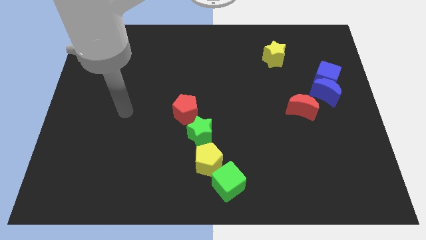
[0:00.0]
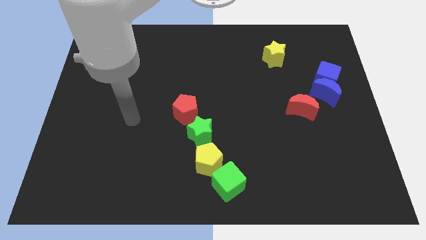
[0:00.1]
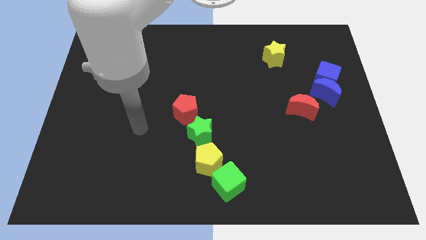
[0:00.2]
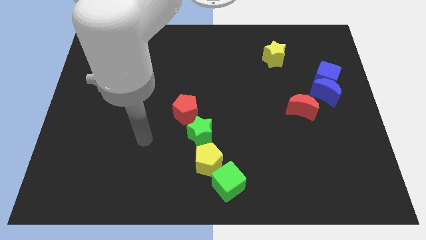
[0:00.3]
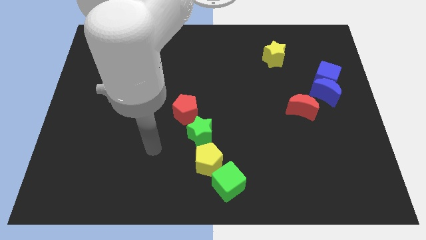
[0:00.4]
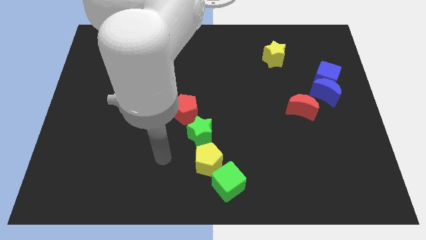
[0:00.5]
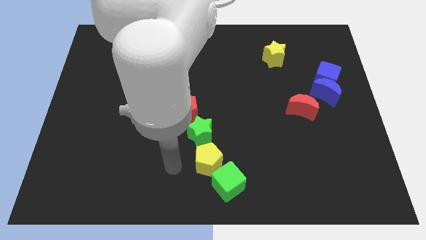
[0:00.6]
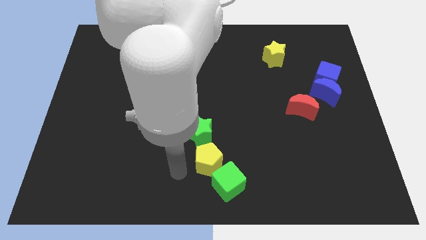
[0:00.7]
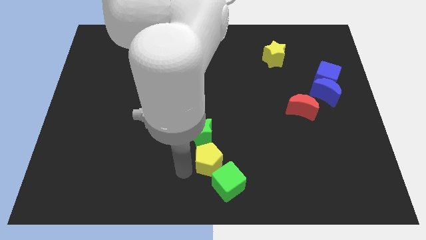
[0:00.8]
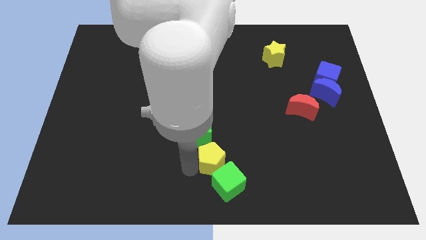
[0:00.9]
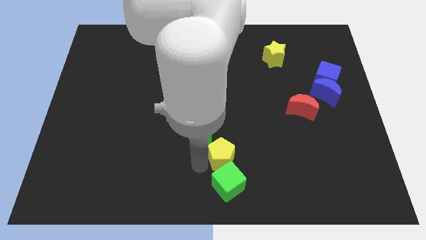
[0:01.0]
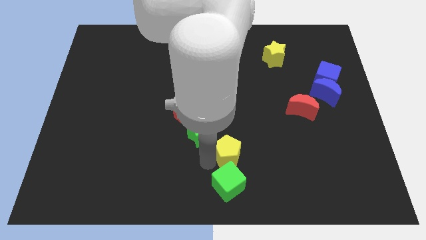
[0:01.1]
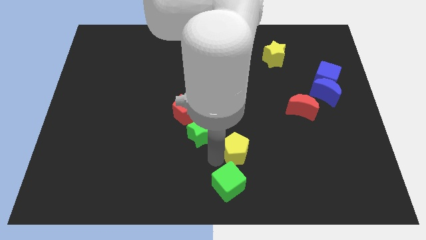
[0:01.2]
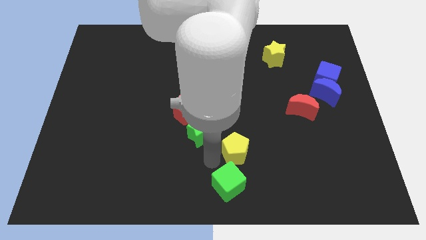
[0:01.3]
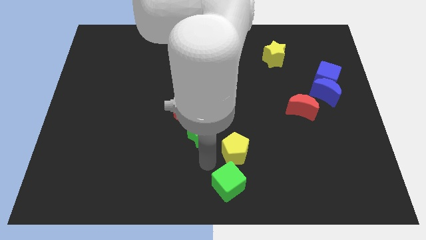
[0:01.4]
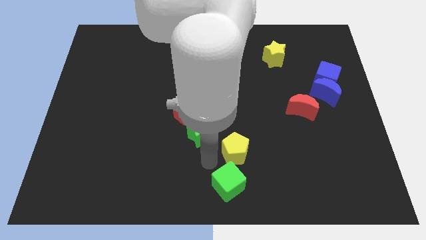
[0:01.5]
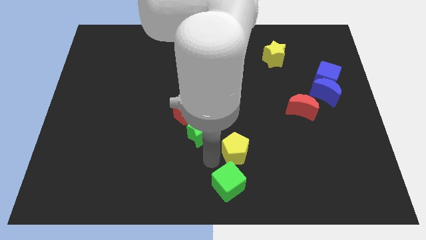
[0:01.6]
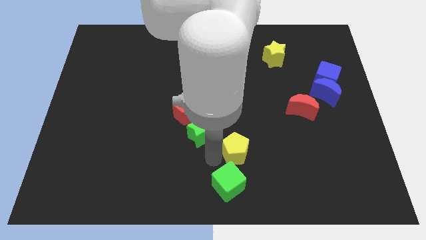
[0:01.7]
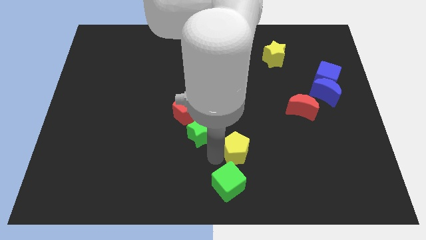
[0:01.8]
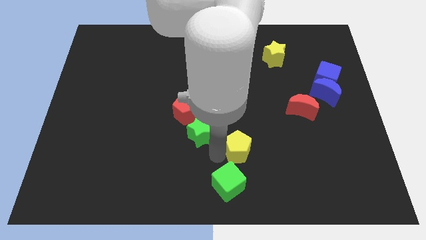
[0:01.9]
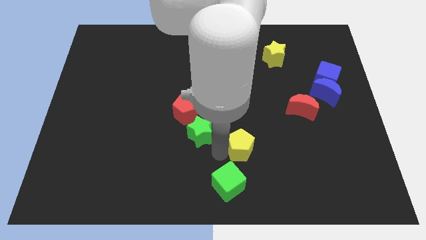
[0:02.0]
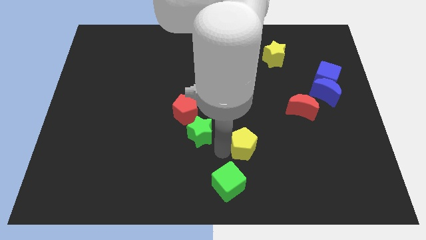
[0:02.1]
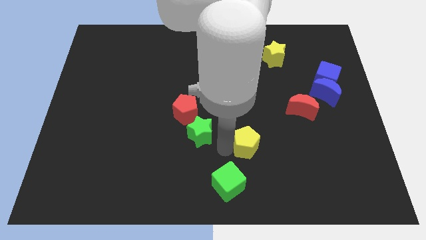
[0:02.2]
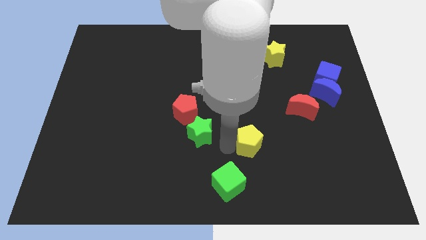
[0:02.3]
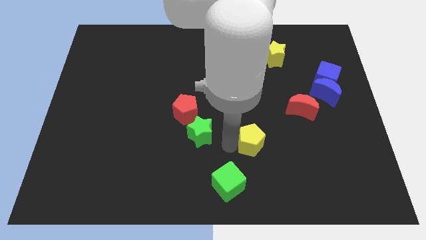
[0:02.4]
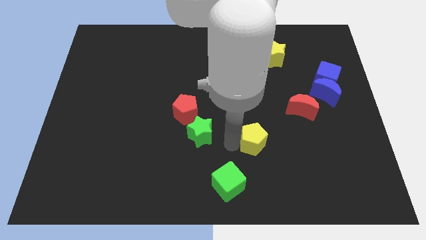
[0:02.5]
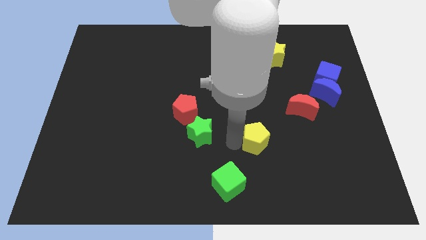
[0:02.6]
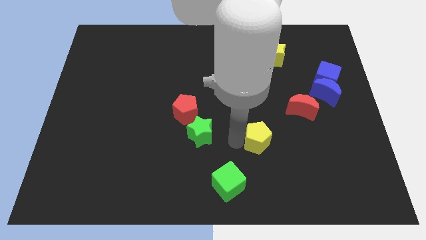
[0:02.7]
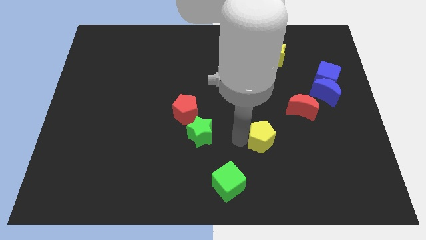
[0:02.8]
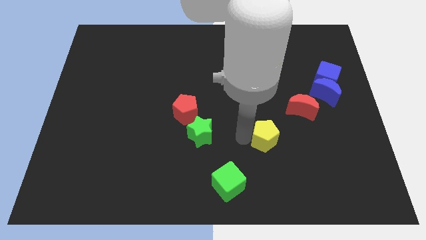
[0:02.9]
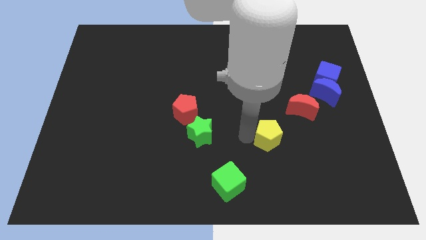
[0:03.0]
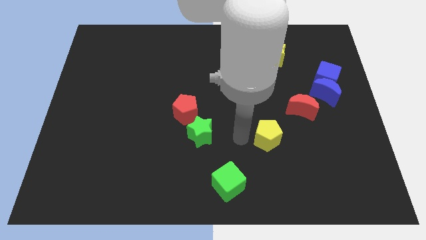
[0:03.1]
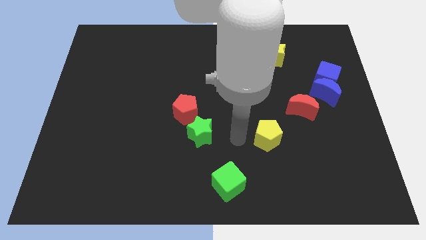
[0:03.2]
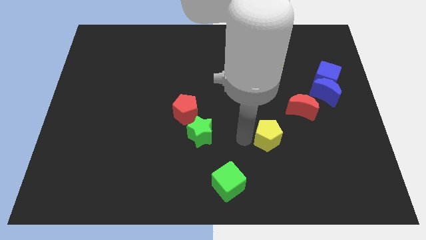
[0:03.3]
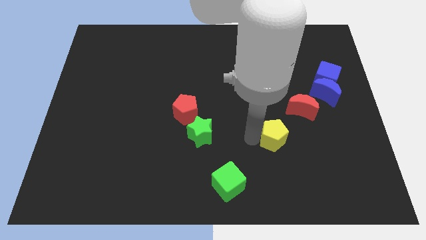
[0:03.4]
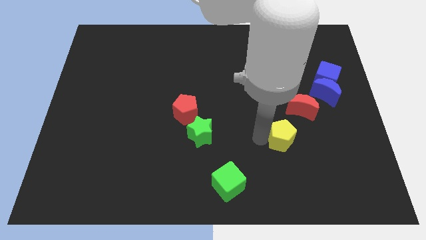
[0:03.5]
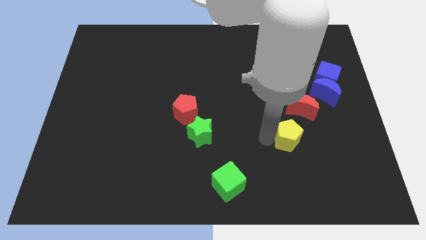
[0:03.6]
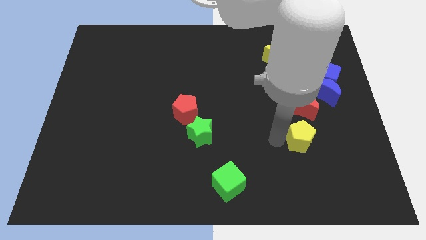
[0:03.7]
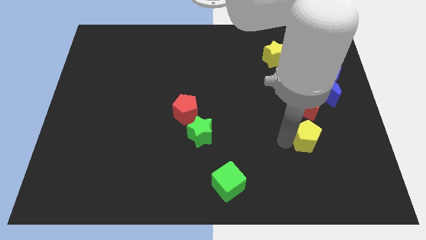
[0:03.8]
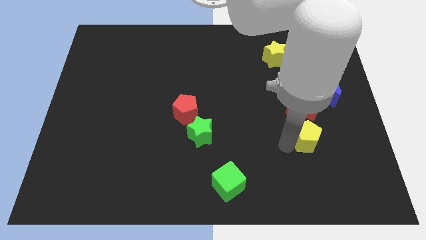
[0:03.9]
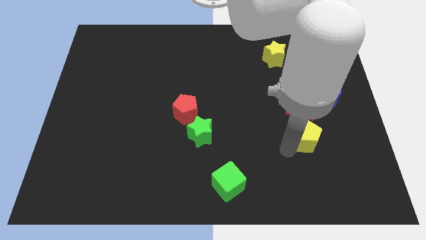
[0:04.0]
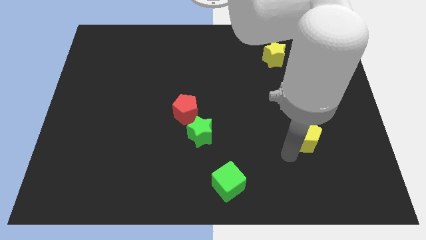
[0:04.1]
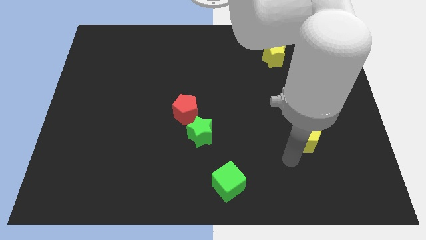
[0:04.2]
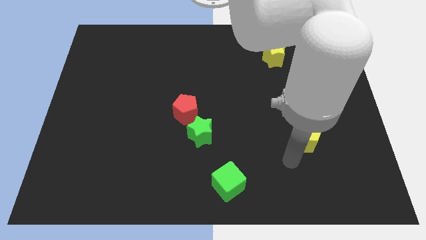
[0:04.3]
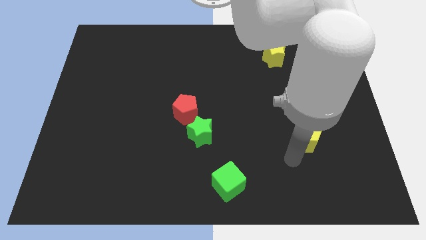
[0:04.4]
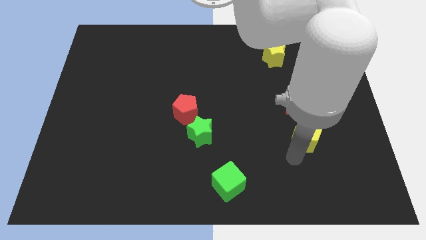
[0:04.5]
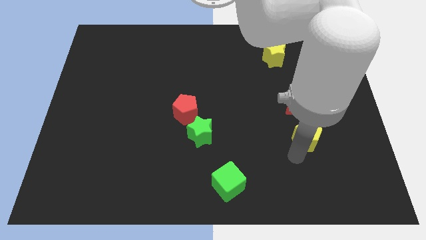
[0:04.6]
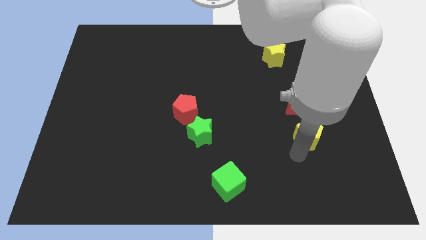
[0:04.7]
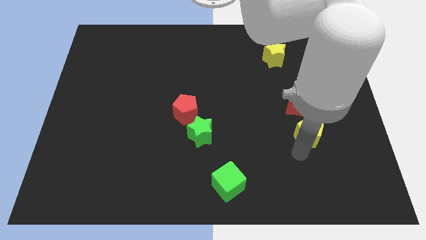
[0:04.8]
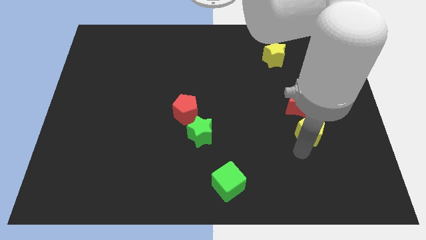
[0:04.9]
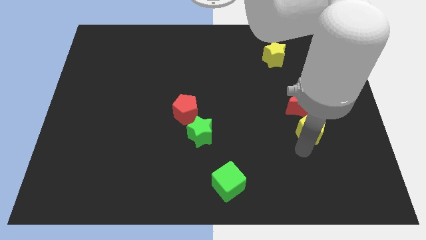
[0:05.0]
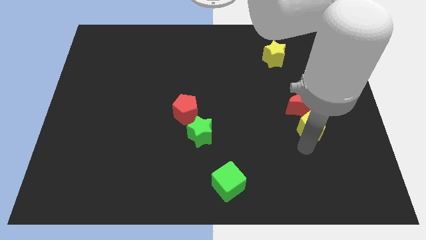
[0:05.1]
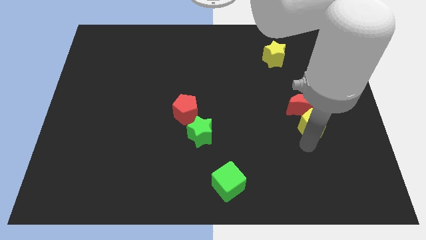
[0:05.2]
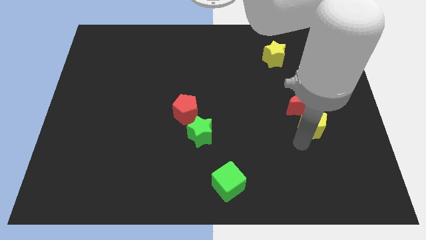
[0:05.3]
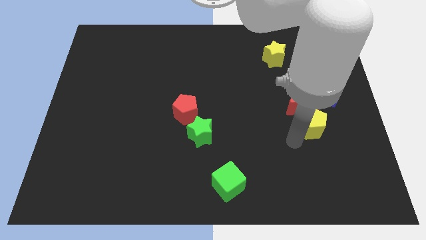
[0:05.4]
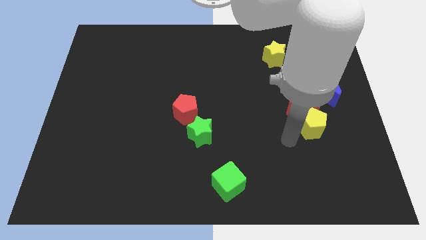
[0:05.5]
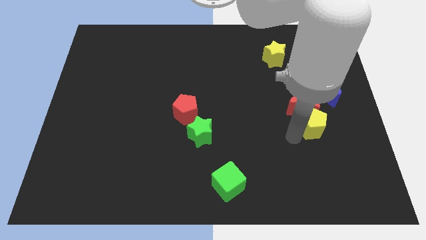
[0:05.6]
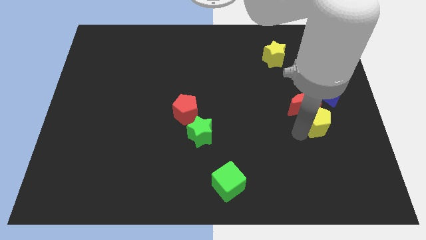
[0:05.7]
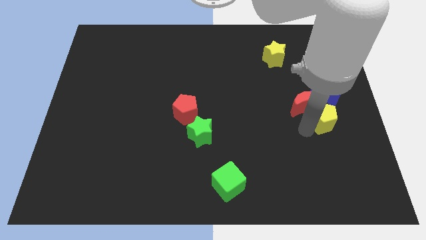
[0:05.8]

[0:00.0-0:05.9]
push the yellow pentagon to the bottom side of the blue cube

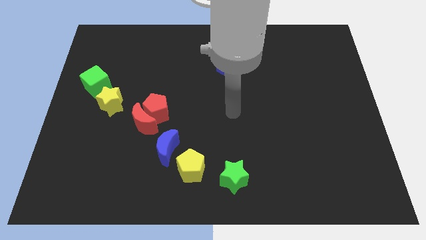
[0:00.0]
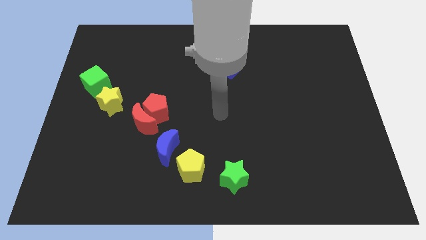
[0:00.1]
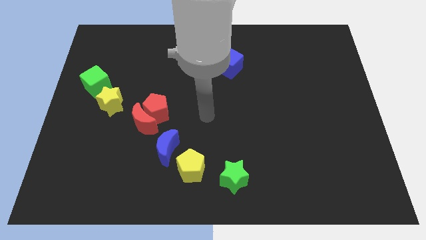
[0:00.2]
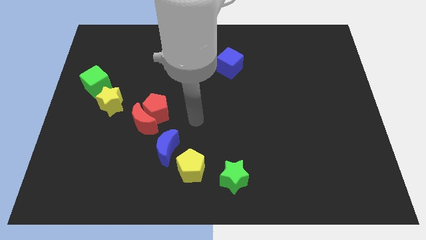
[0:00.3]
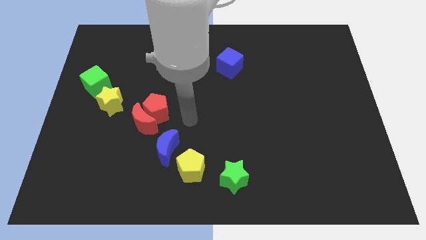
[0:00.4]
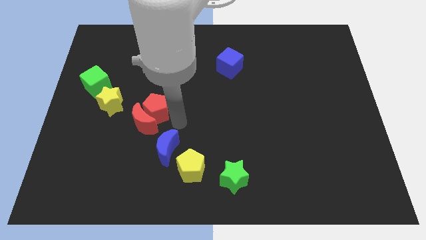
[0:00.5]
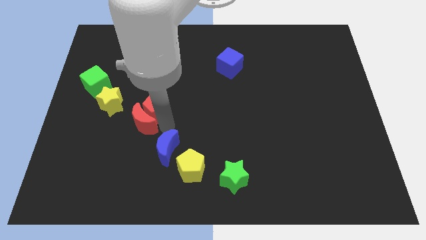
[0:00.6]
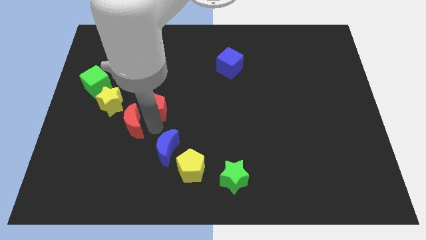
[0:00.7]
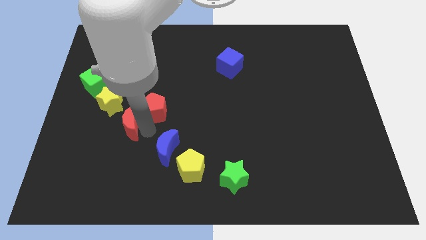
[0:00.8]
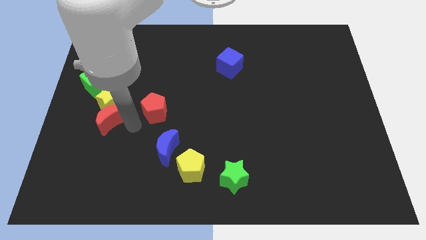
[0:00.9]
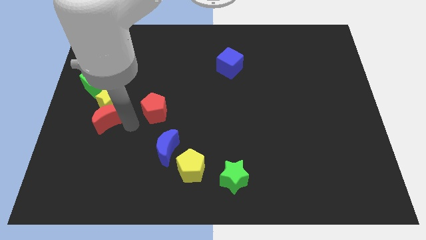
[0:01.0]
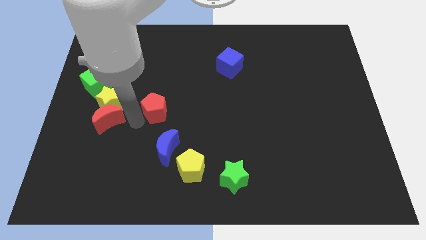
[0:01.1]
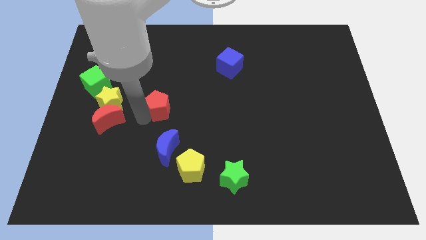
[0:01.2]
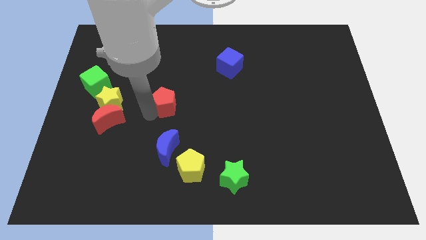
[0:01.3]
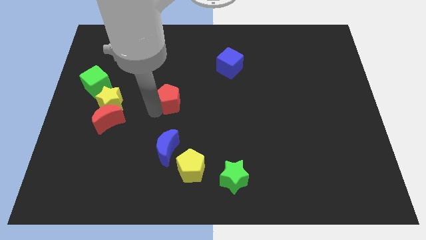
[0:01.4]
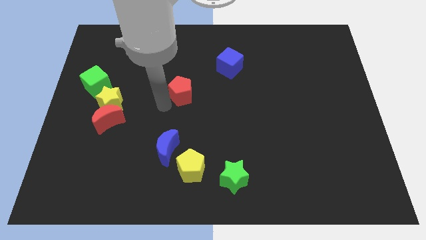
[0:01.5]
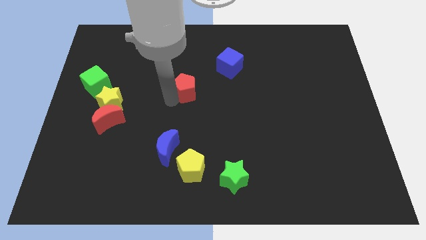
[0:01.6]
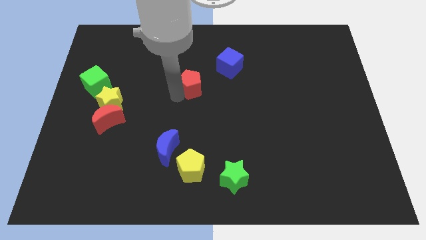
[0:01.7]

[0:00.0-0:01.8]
move the red pentagon to the bottom left side of the blue cube
